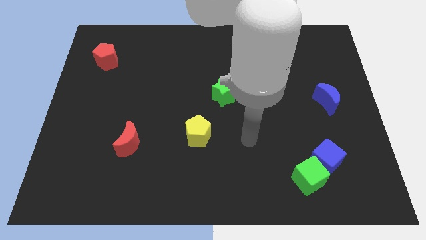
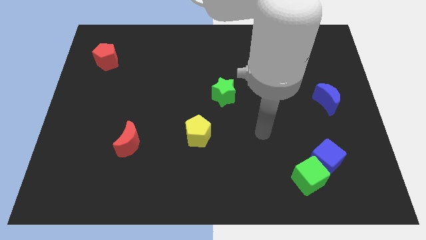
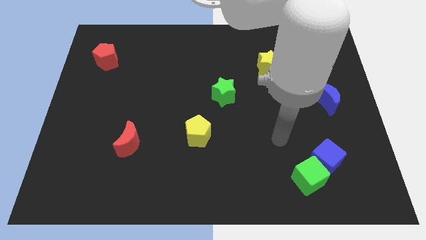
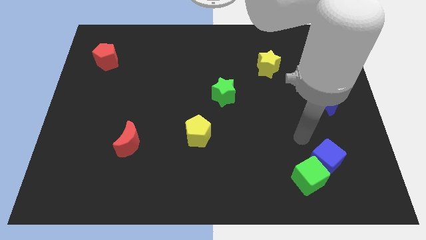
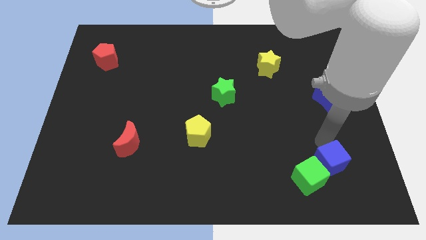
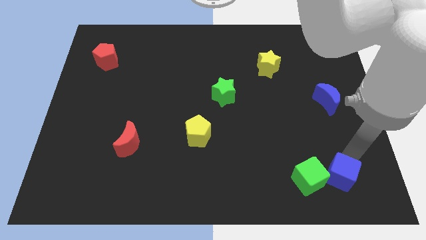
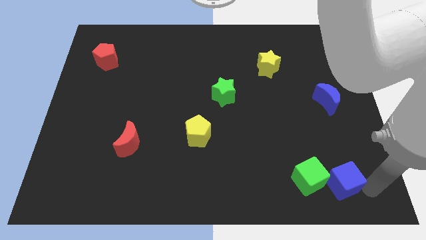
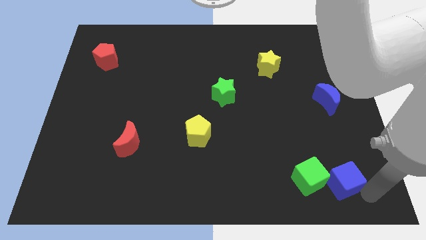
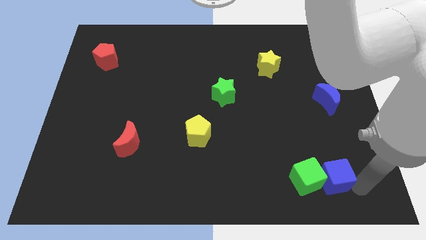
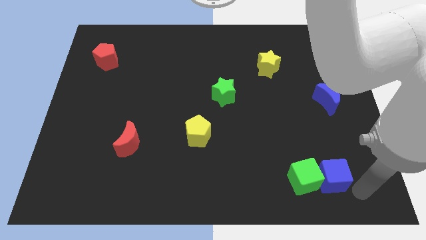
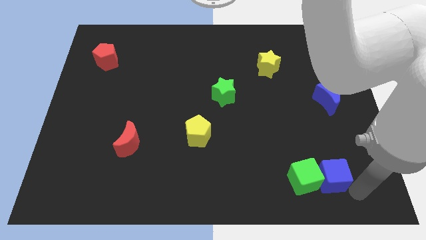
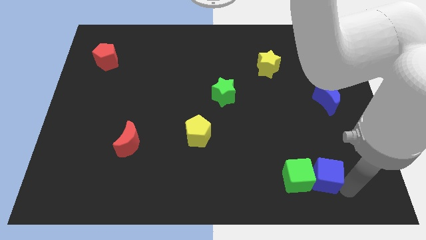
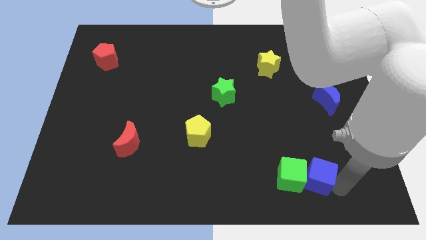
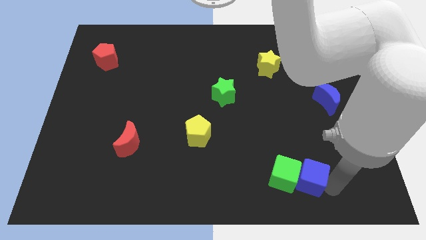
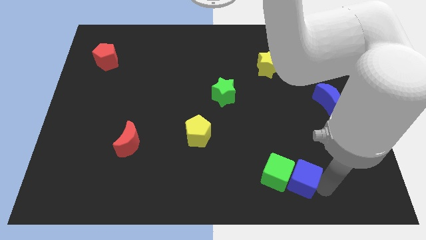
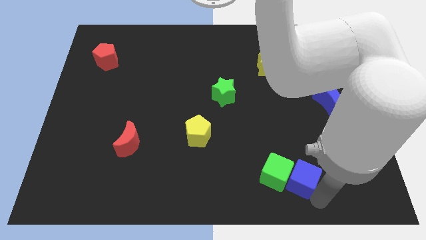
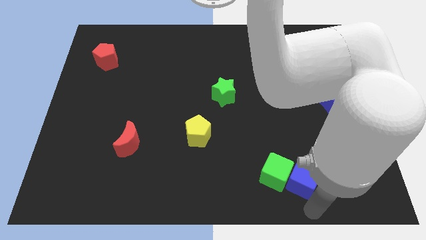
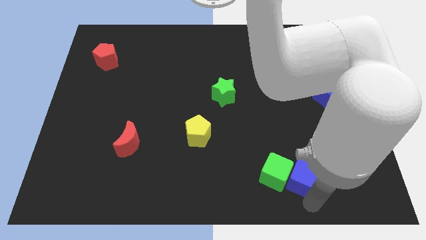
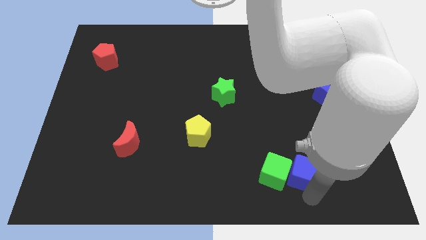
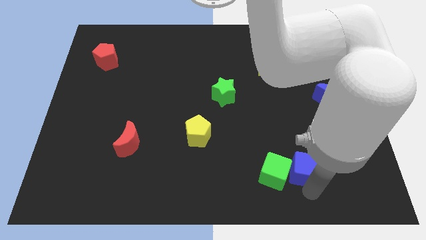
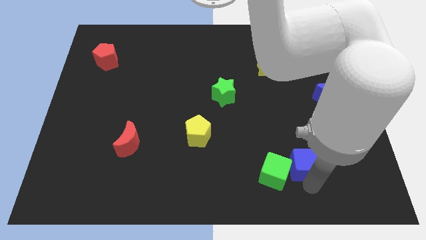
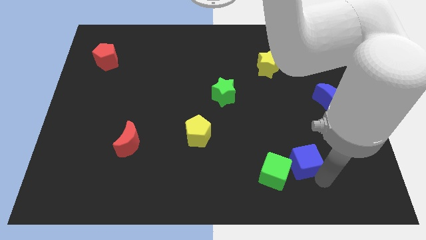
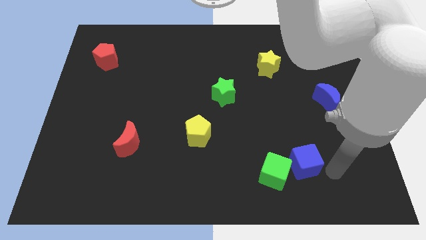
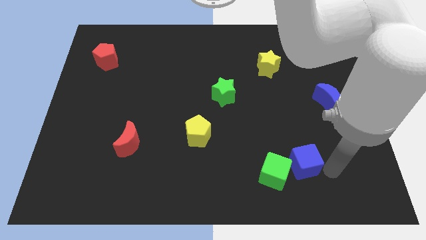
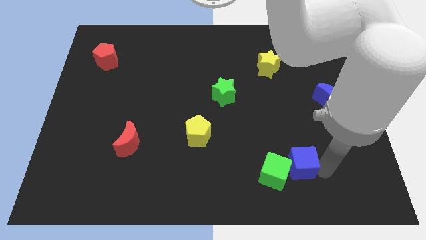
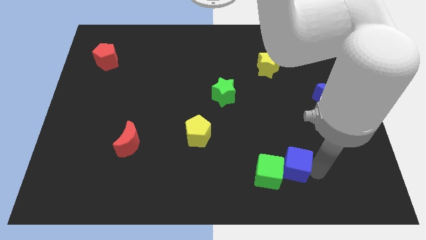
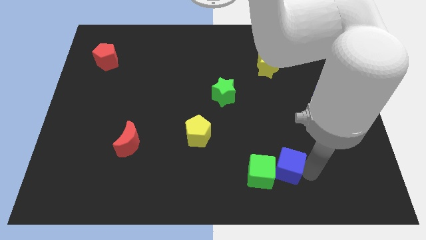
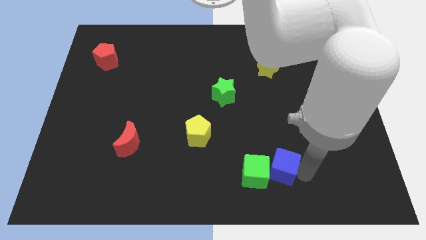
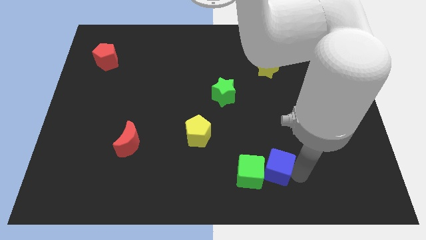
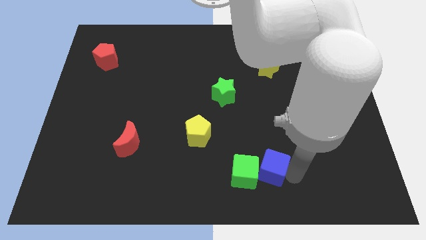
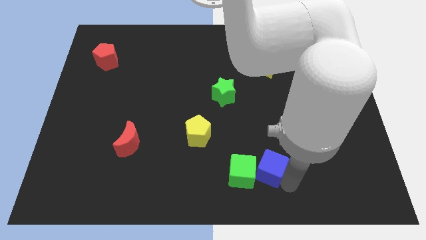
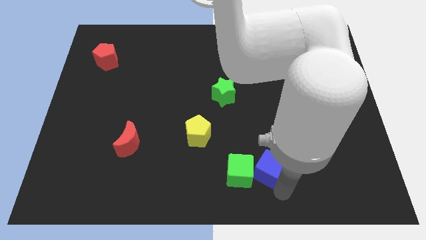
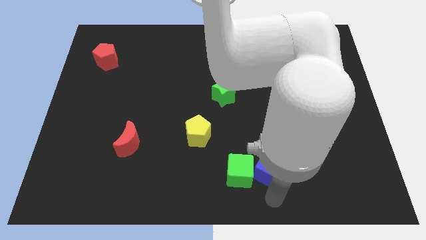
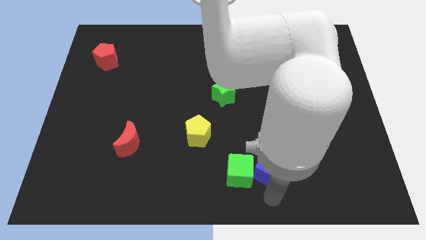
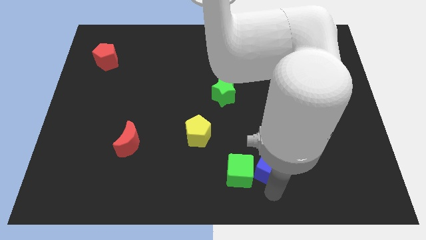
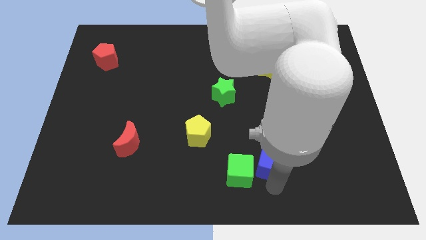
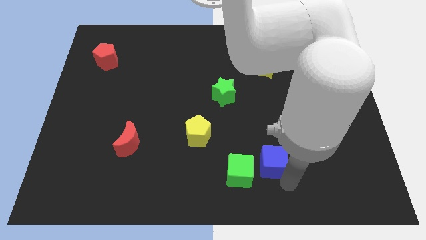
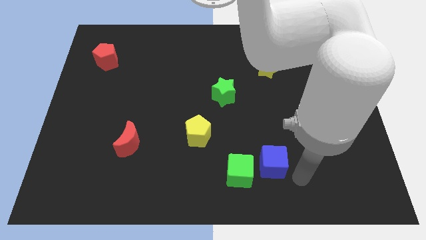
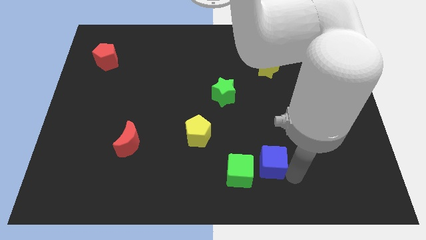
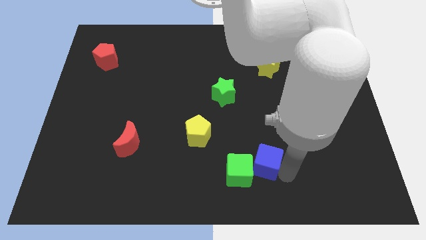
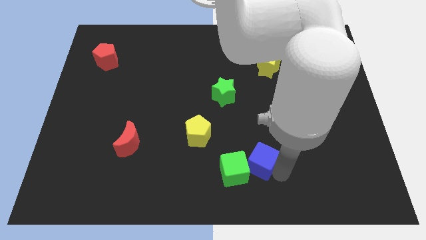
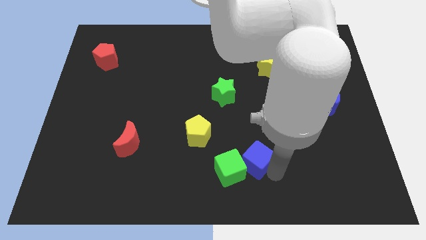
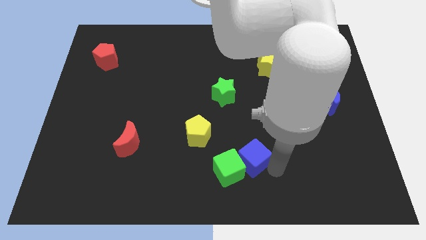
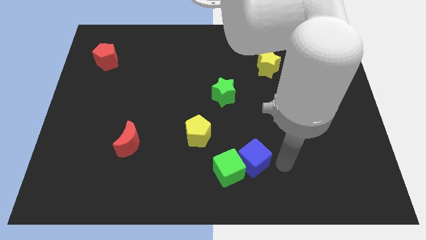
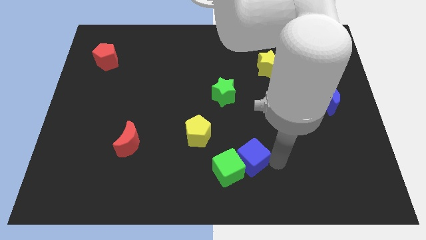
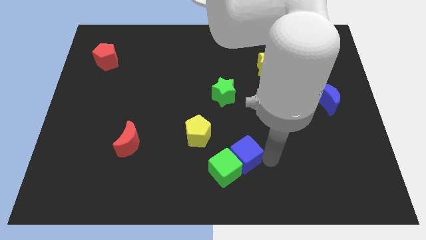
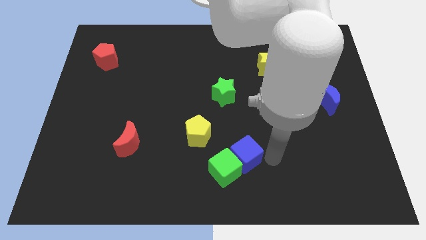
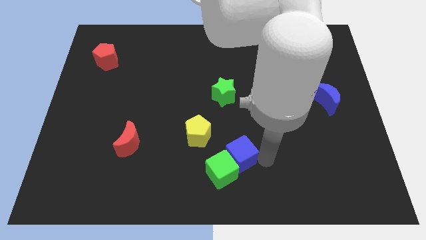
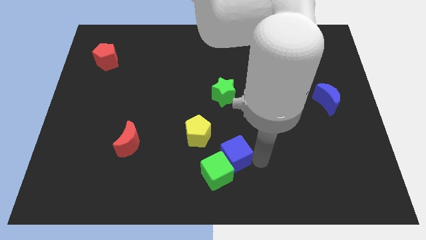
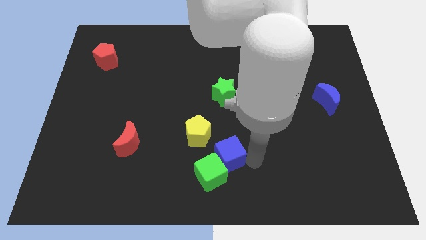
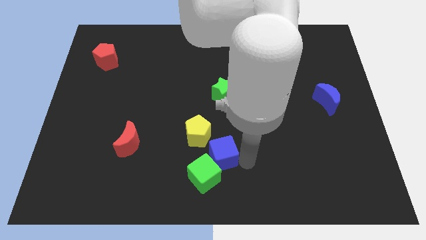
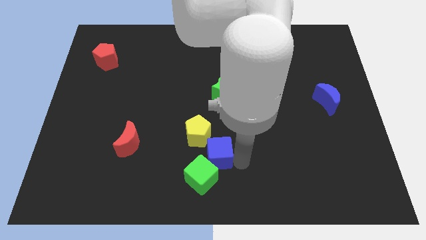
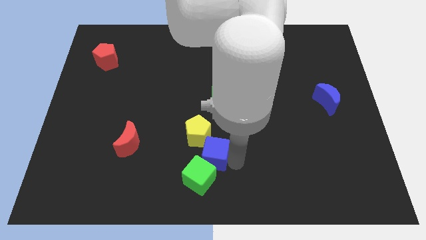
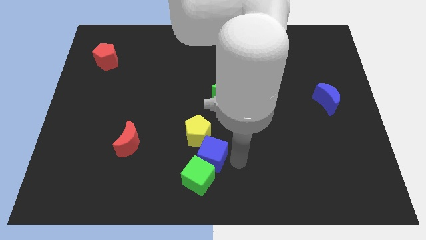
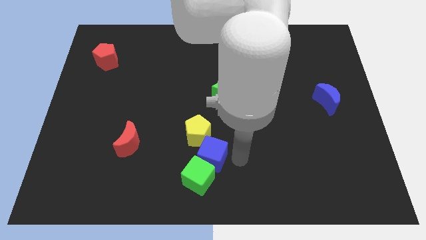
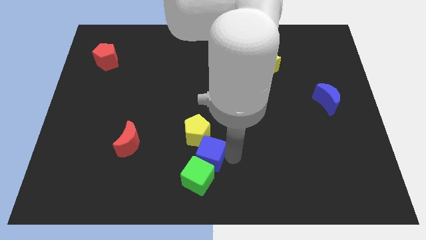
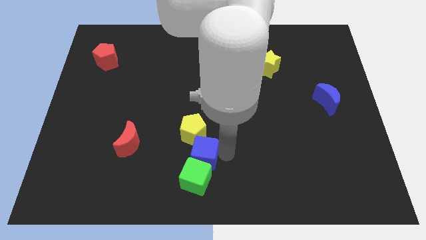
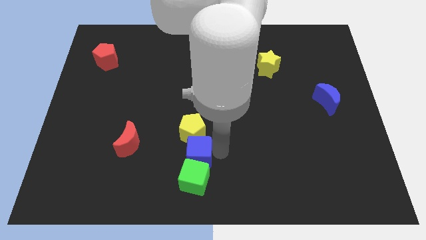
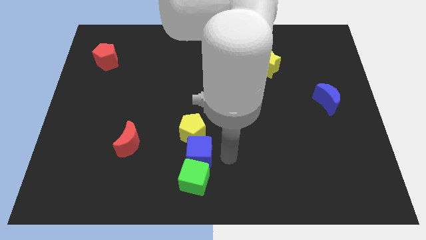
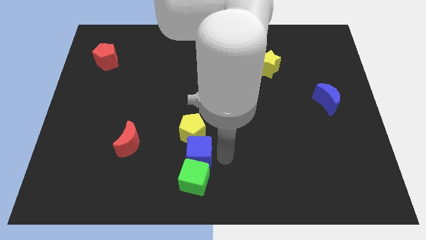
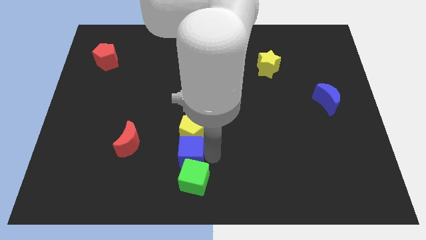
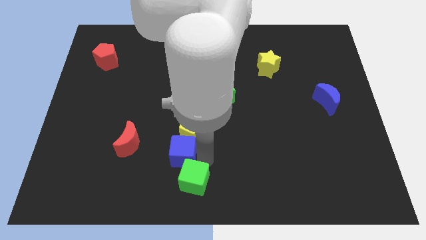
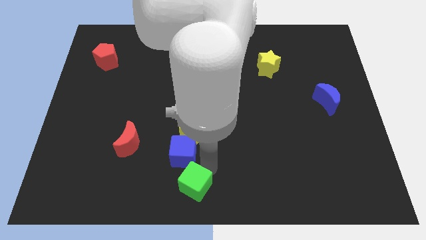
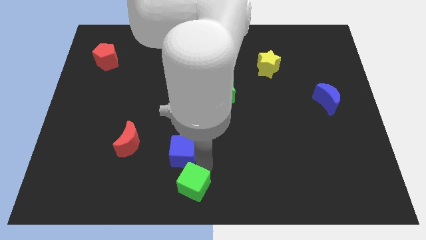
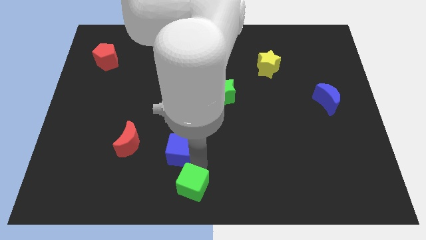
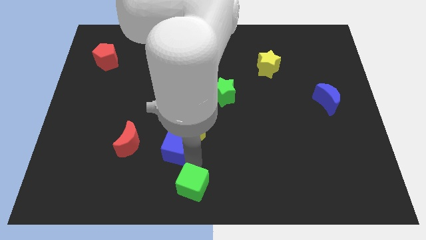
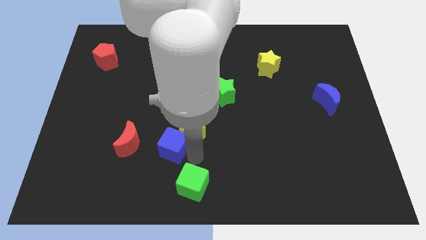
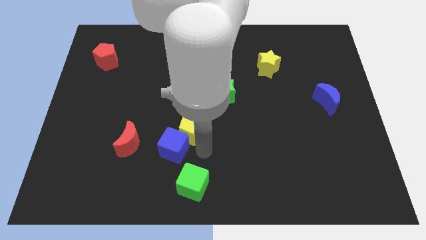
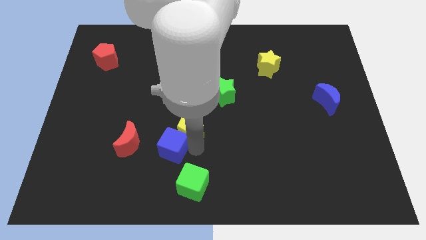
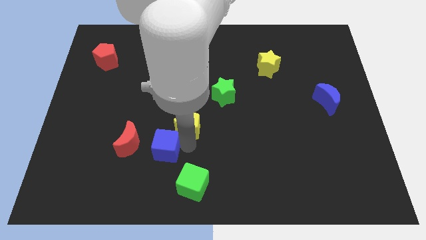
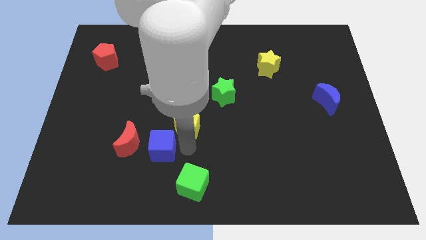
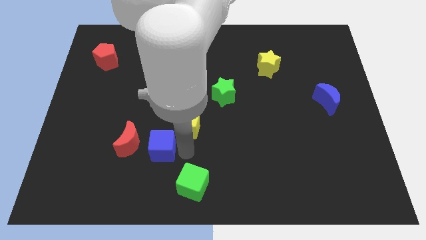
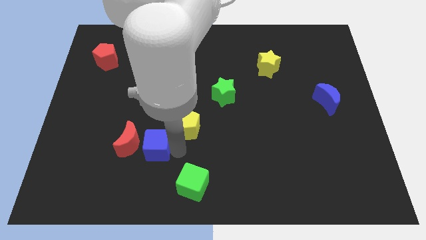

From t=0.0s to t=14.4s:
put the blue cube next to the red moon

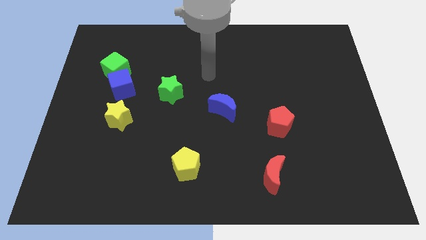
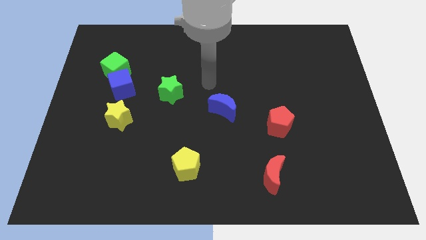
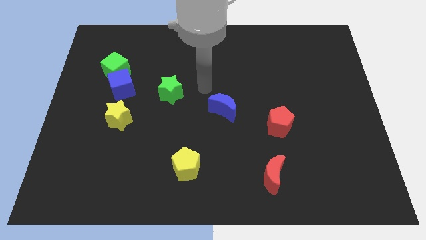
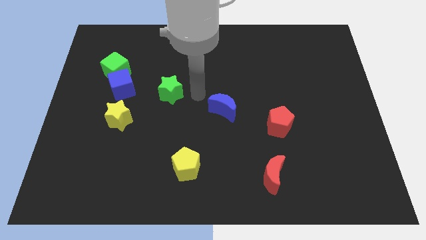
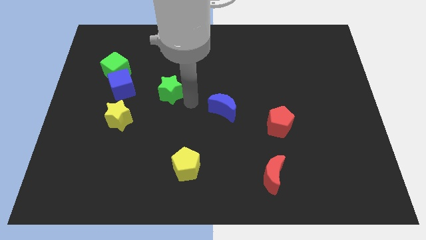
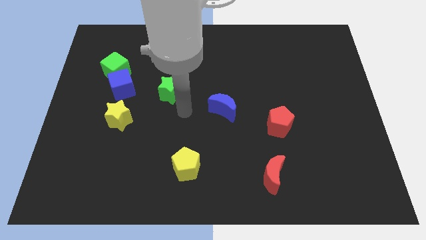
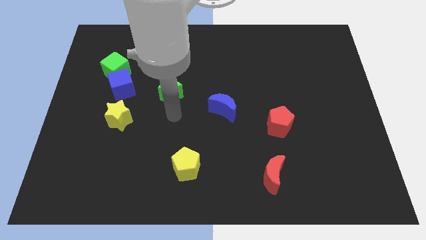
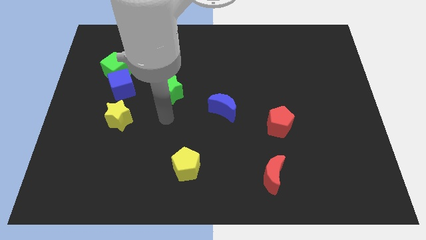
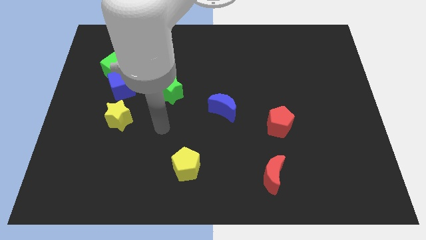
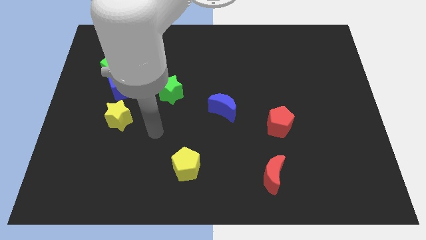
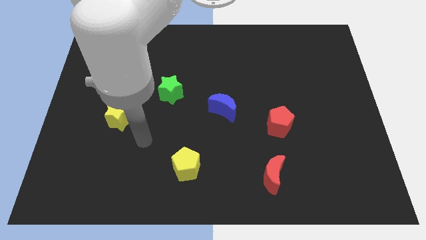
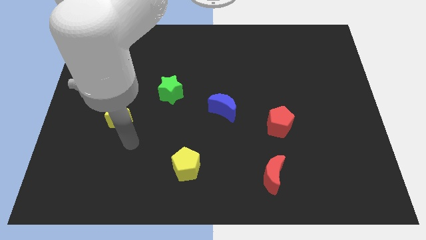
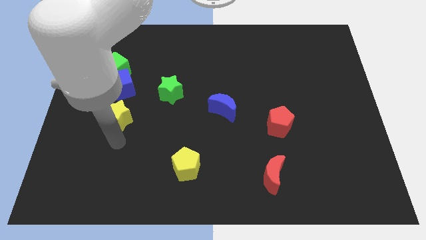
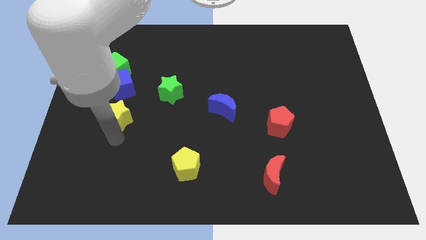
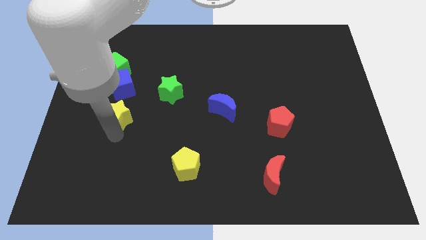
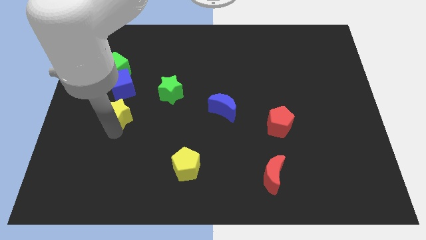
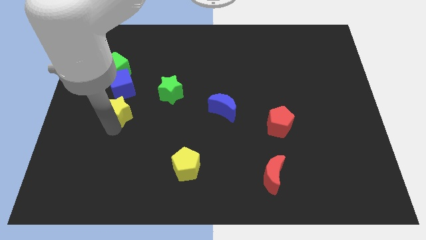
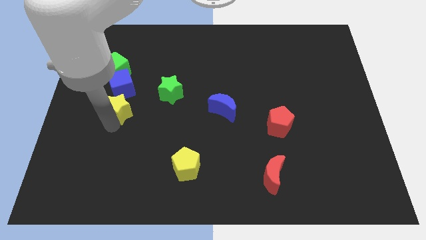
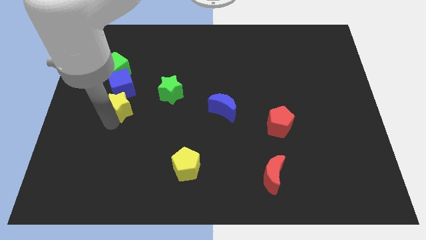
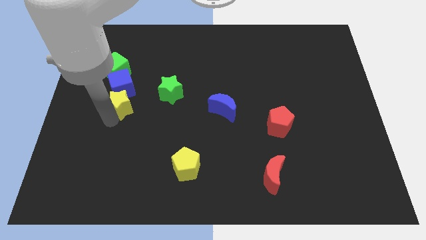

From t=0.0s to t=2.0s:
slide the yellow star towards the blue cube
